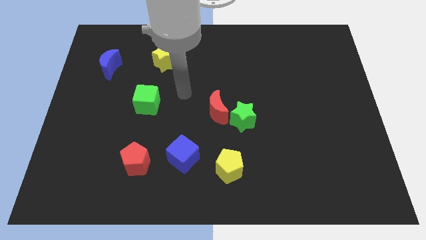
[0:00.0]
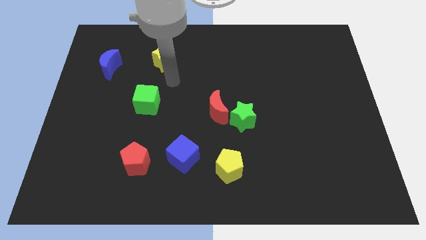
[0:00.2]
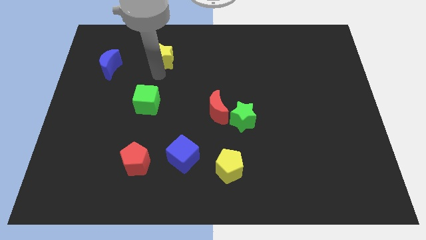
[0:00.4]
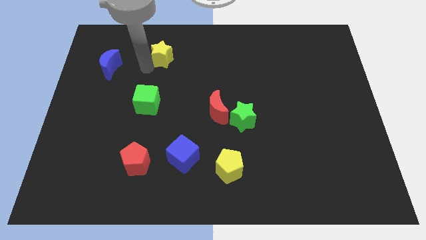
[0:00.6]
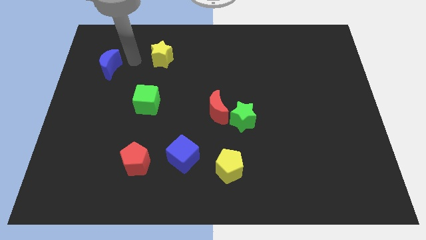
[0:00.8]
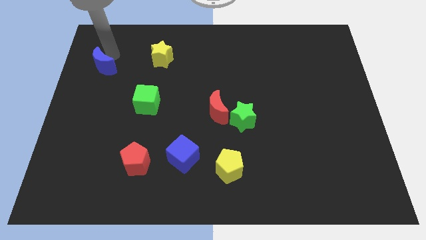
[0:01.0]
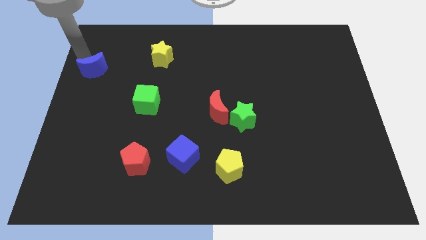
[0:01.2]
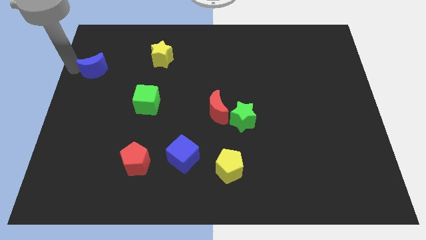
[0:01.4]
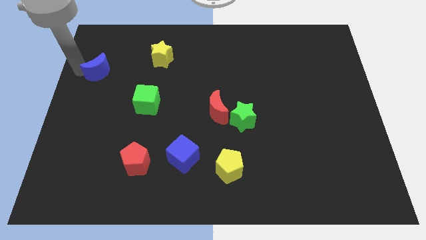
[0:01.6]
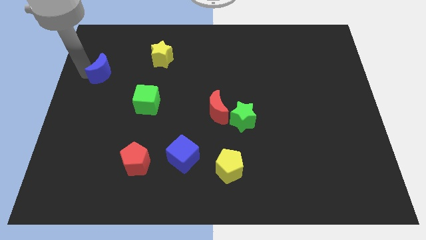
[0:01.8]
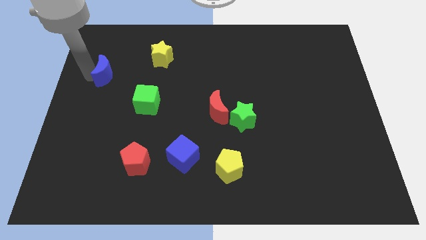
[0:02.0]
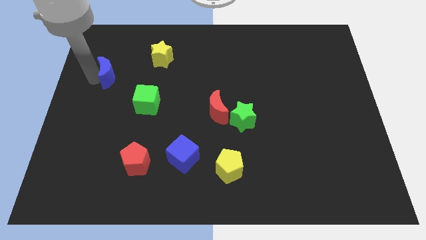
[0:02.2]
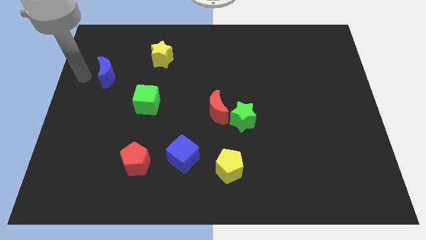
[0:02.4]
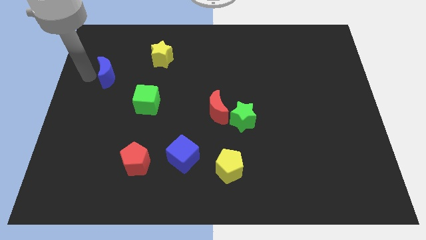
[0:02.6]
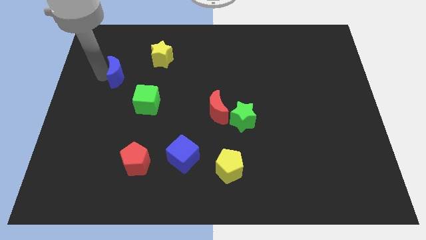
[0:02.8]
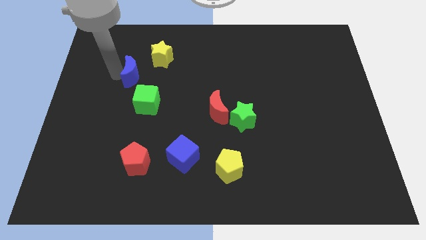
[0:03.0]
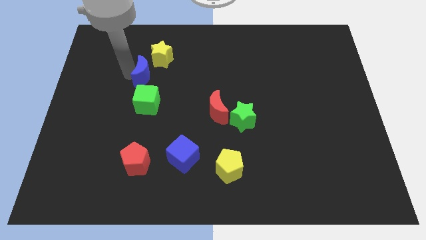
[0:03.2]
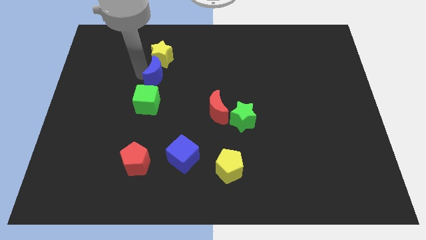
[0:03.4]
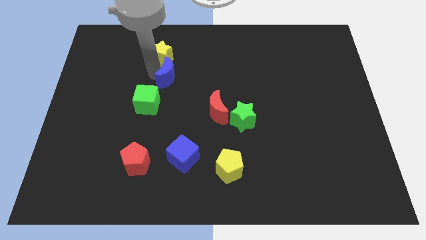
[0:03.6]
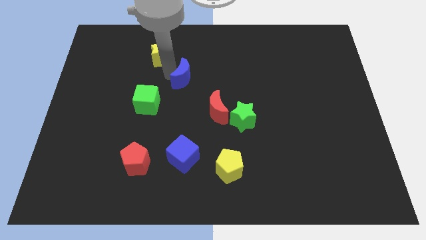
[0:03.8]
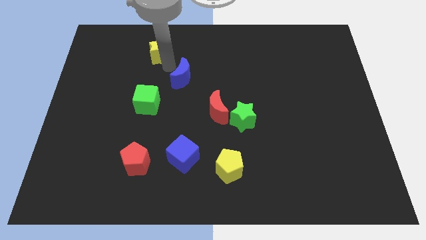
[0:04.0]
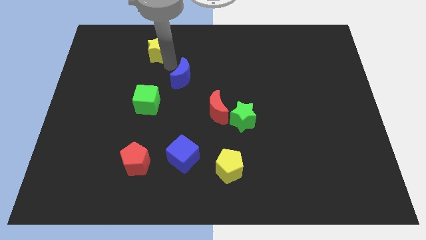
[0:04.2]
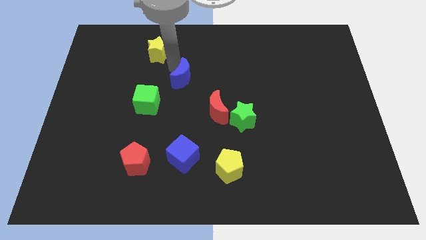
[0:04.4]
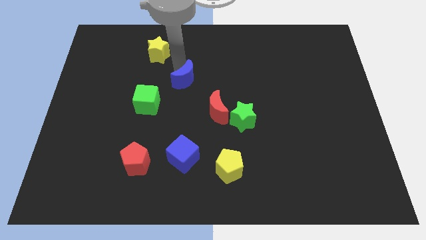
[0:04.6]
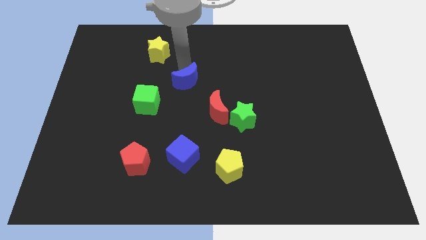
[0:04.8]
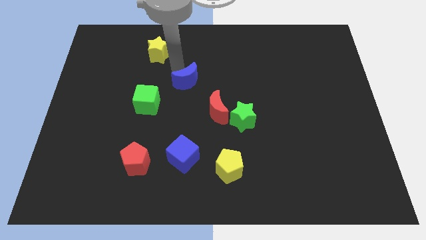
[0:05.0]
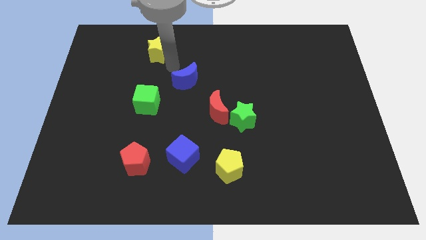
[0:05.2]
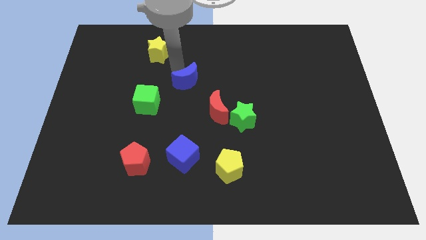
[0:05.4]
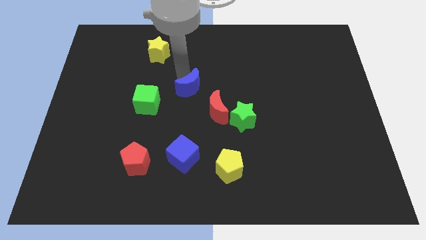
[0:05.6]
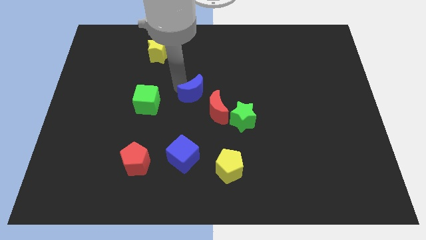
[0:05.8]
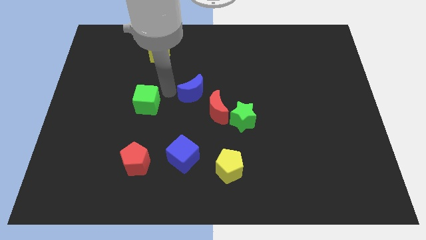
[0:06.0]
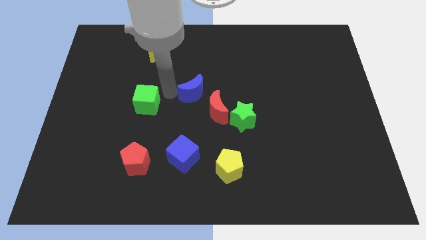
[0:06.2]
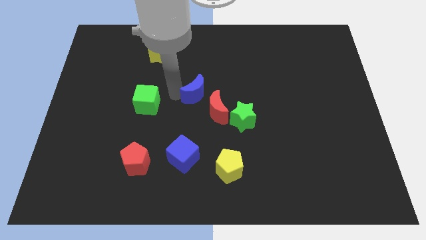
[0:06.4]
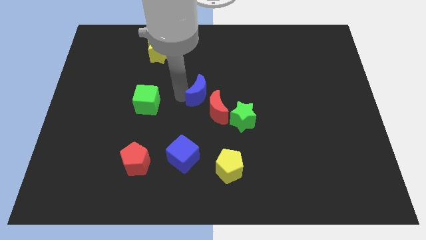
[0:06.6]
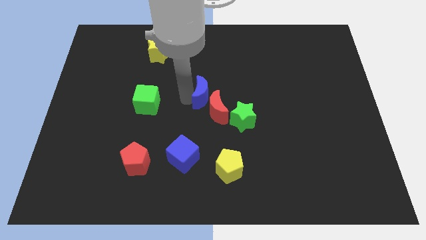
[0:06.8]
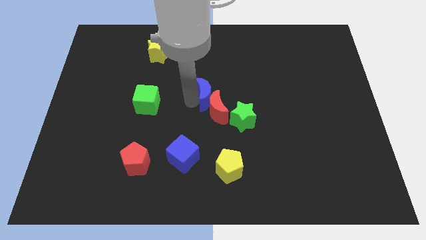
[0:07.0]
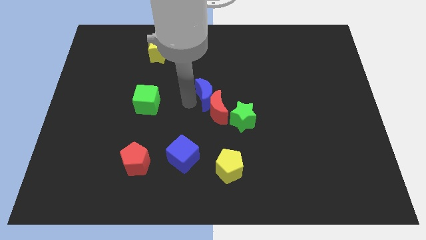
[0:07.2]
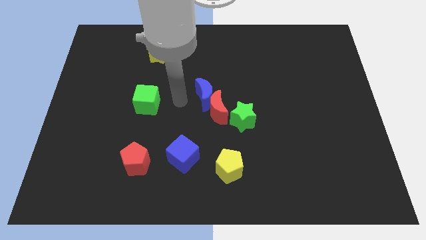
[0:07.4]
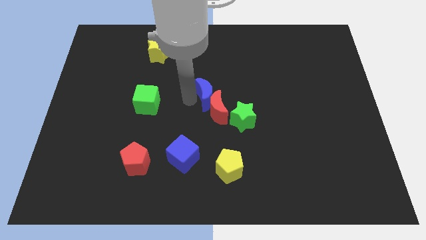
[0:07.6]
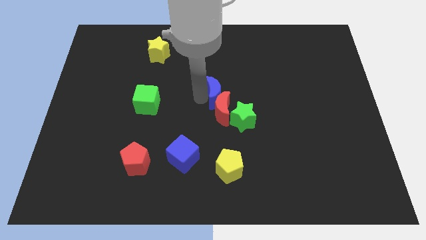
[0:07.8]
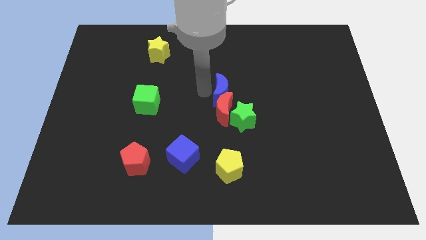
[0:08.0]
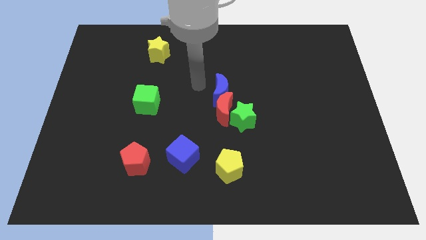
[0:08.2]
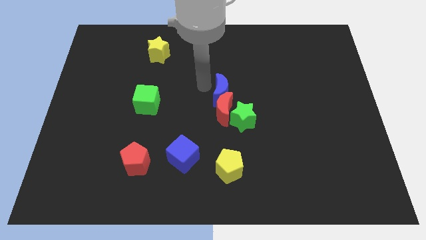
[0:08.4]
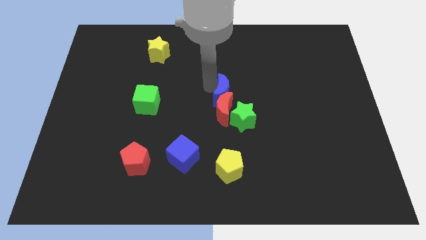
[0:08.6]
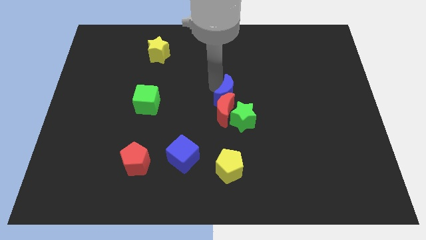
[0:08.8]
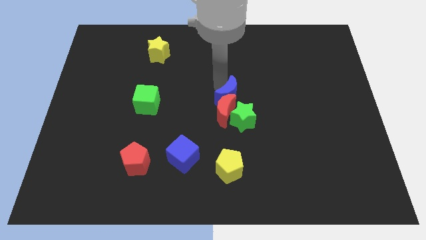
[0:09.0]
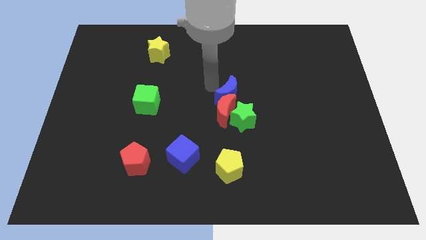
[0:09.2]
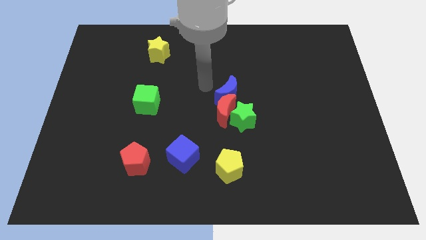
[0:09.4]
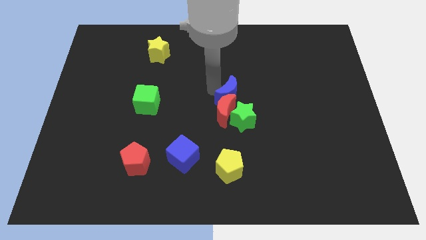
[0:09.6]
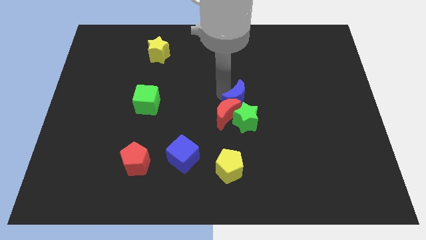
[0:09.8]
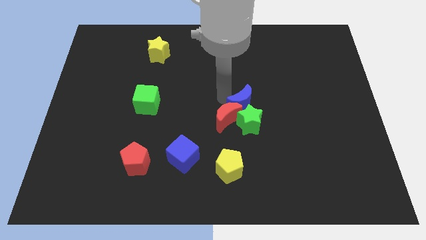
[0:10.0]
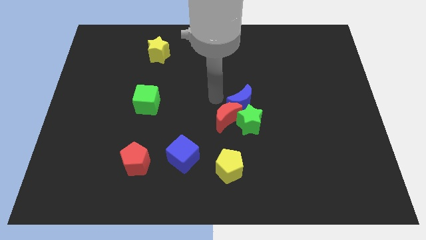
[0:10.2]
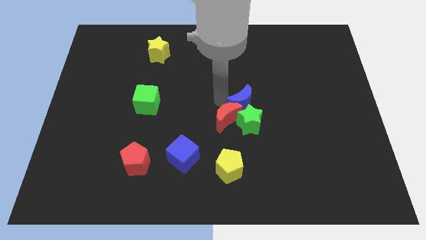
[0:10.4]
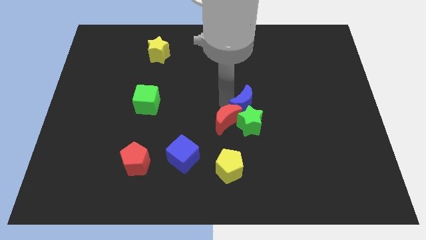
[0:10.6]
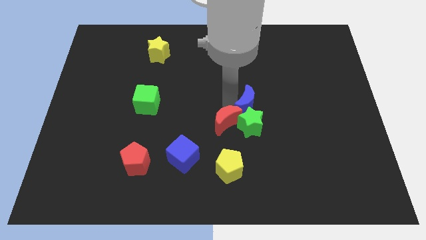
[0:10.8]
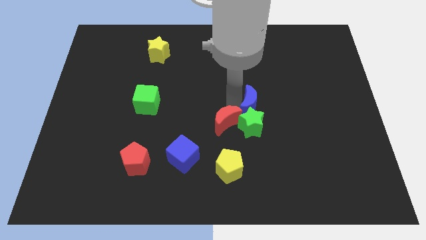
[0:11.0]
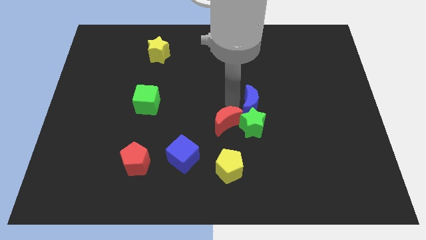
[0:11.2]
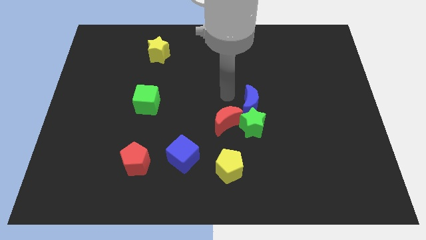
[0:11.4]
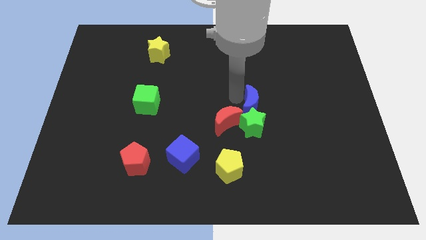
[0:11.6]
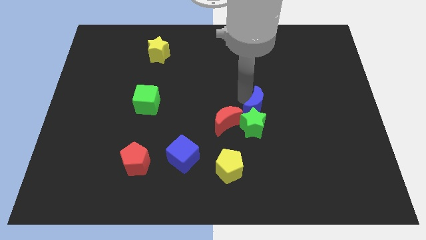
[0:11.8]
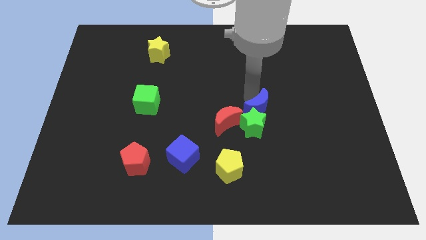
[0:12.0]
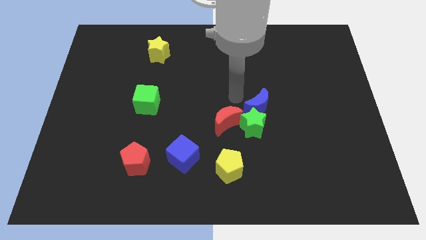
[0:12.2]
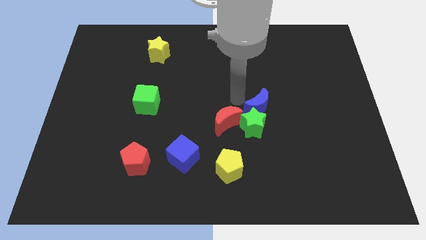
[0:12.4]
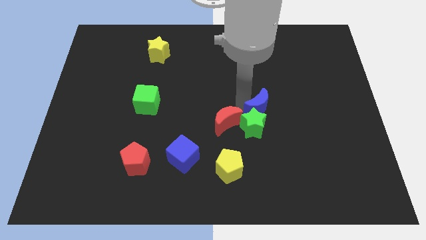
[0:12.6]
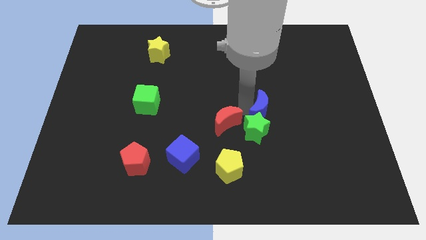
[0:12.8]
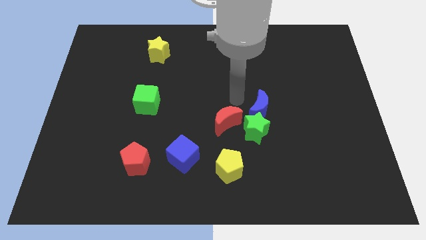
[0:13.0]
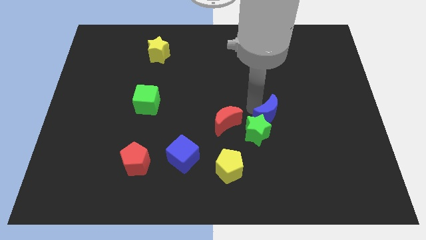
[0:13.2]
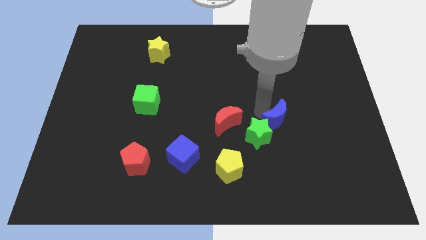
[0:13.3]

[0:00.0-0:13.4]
push the blue moon right of the green star

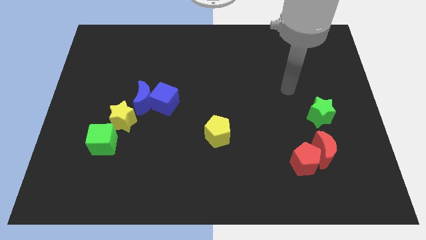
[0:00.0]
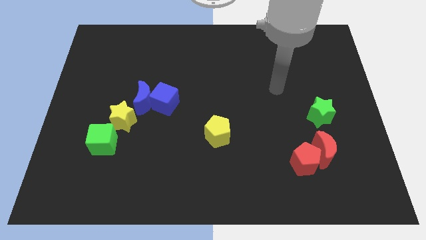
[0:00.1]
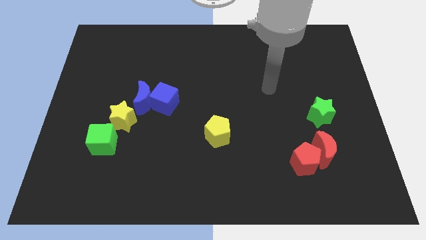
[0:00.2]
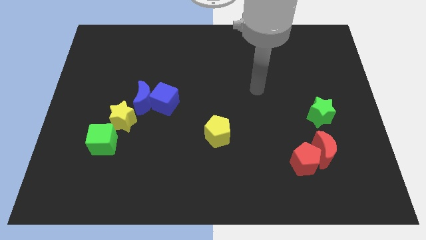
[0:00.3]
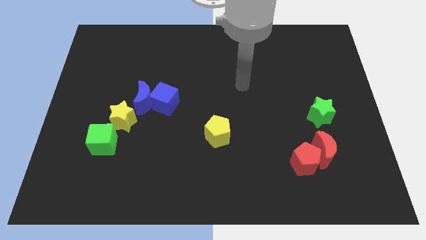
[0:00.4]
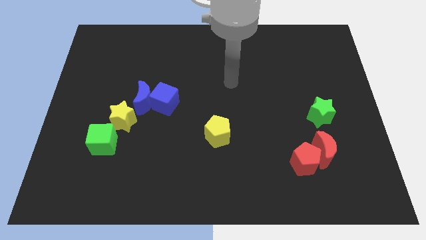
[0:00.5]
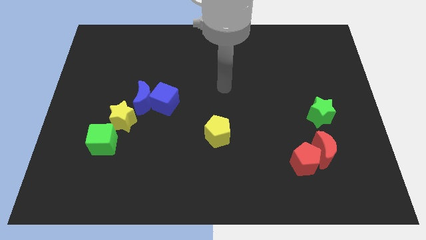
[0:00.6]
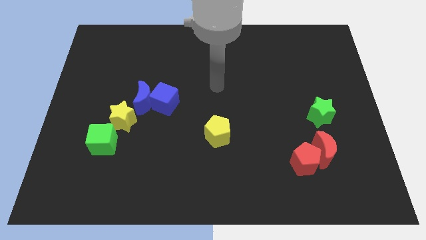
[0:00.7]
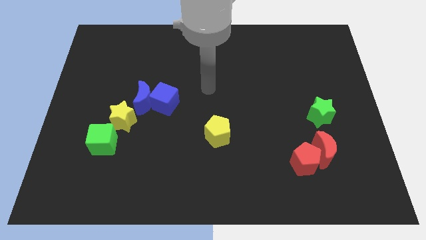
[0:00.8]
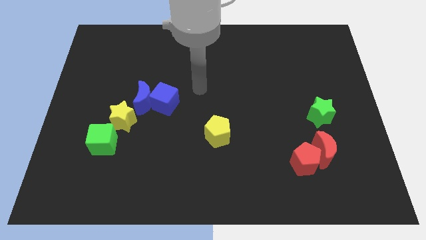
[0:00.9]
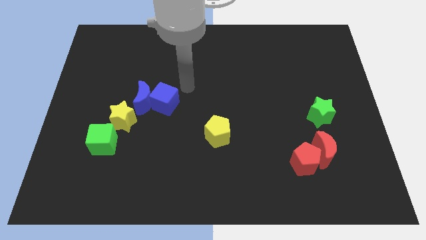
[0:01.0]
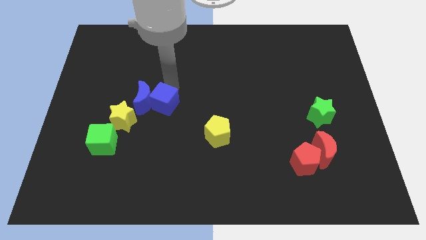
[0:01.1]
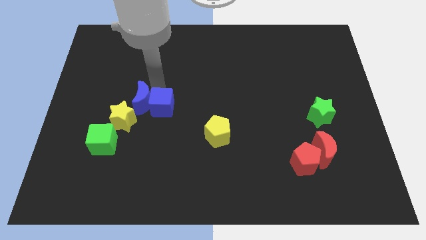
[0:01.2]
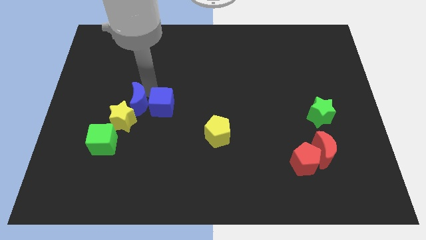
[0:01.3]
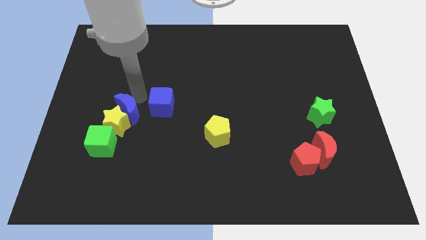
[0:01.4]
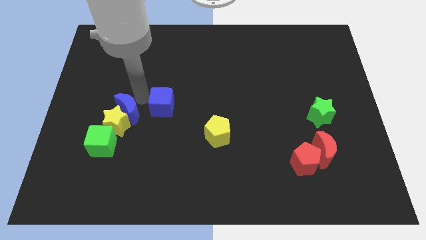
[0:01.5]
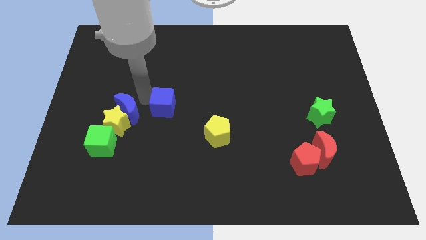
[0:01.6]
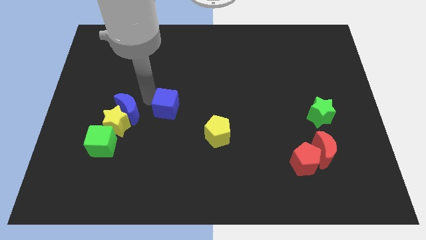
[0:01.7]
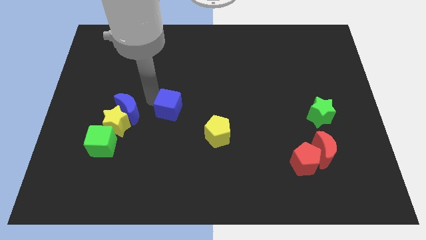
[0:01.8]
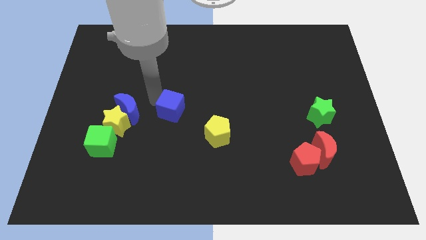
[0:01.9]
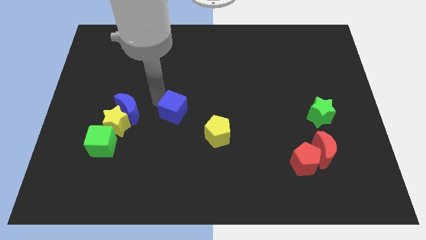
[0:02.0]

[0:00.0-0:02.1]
put the blue cube to the top left of the yellow pentagon
